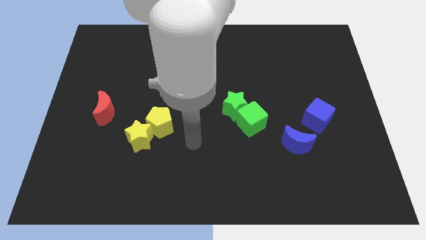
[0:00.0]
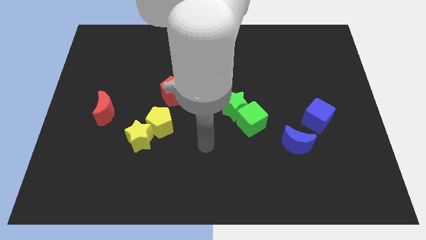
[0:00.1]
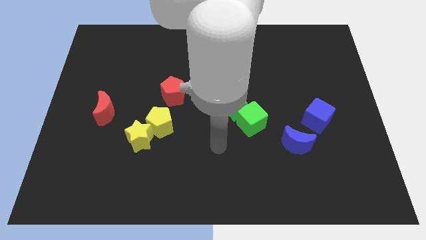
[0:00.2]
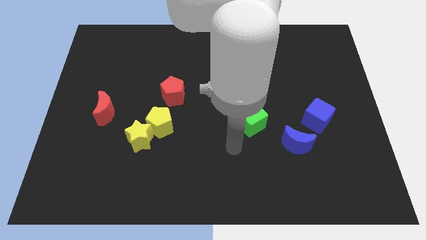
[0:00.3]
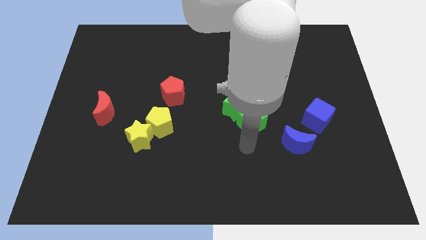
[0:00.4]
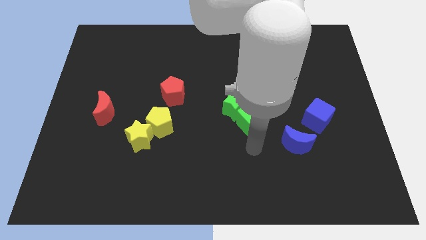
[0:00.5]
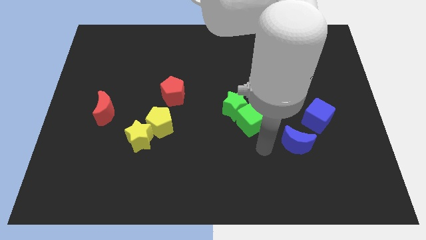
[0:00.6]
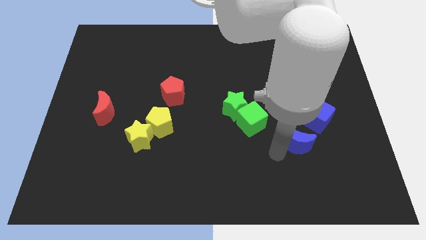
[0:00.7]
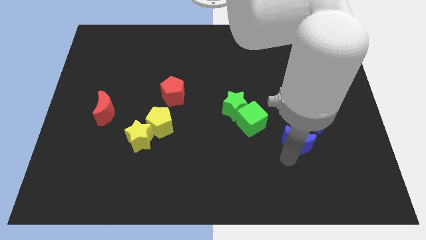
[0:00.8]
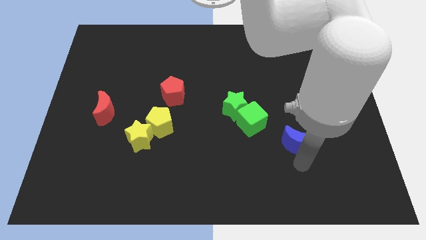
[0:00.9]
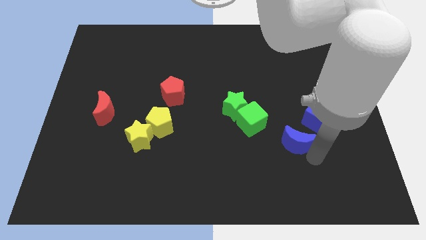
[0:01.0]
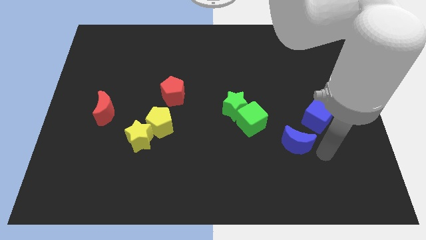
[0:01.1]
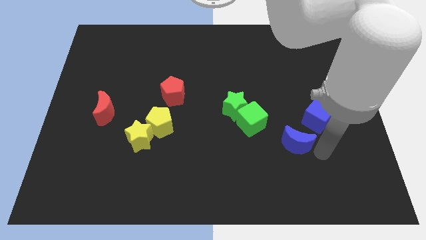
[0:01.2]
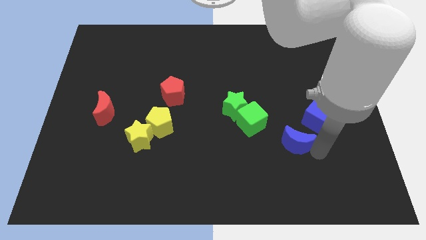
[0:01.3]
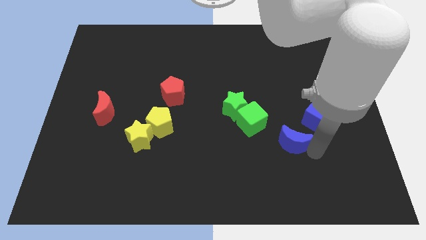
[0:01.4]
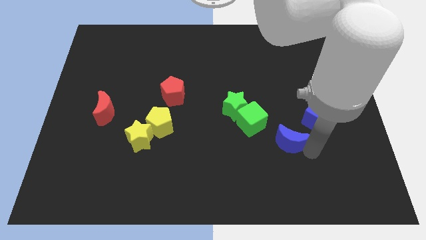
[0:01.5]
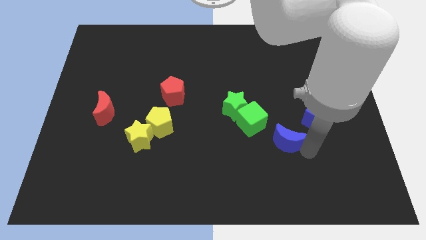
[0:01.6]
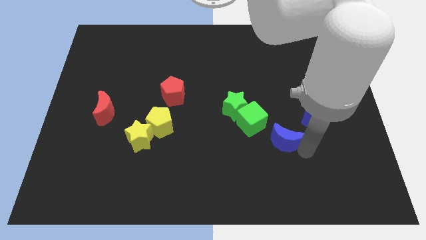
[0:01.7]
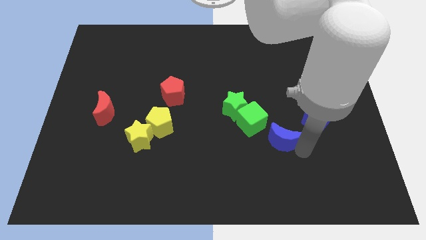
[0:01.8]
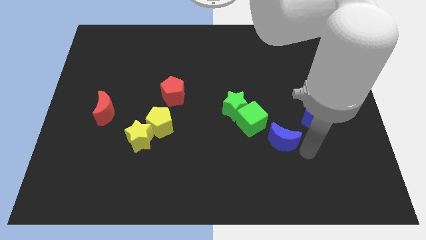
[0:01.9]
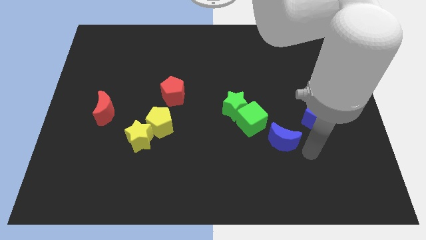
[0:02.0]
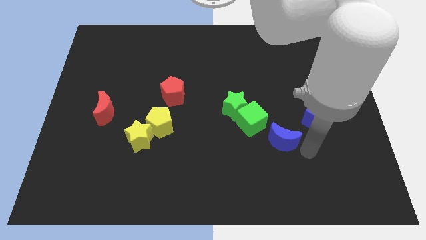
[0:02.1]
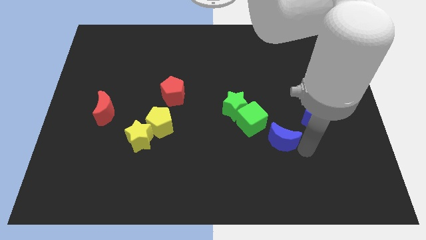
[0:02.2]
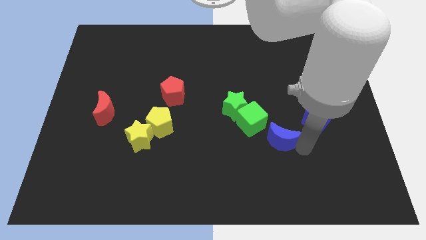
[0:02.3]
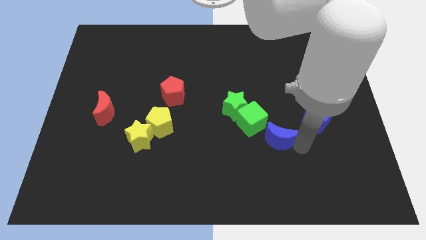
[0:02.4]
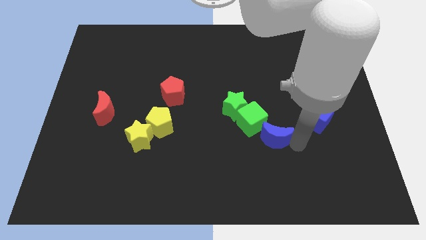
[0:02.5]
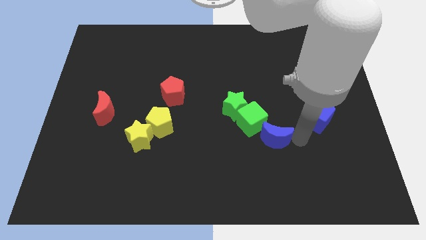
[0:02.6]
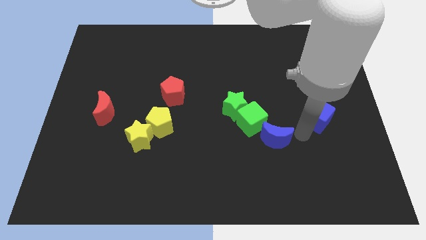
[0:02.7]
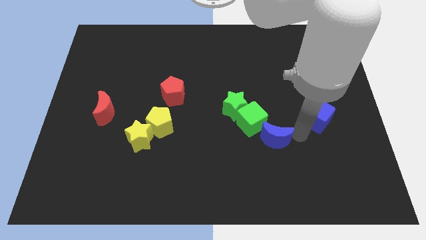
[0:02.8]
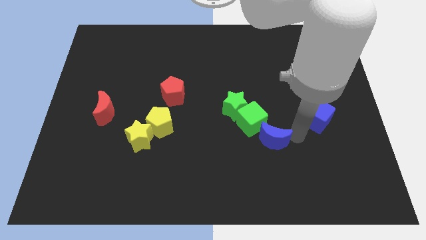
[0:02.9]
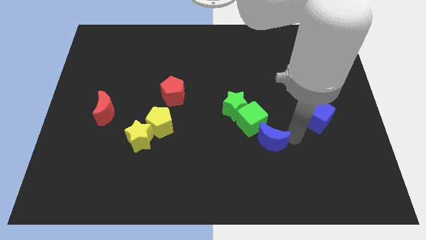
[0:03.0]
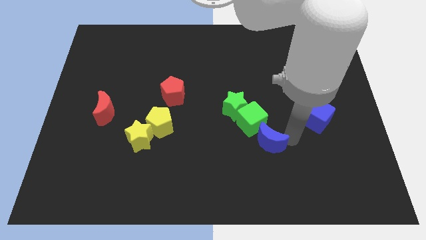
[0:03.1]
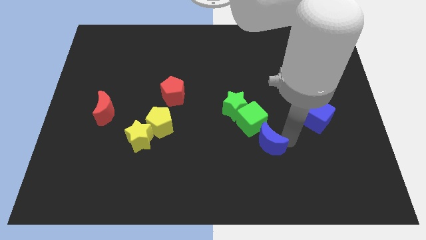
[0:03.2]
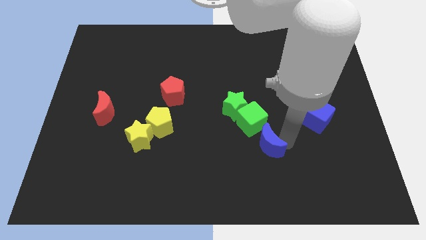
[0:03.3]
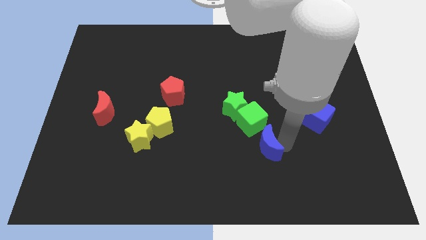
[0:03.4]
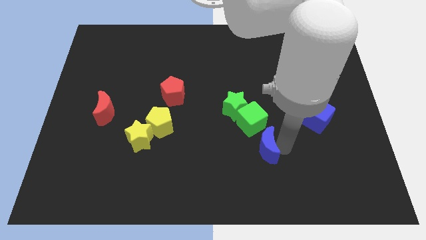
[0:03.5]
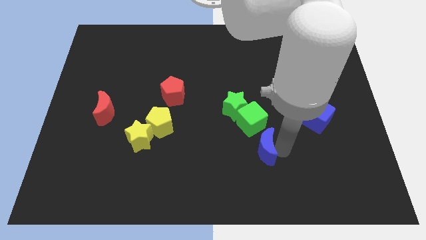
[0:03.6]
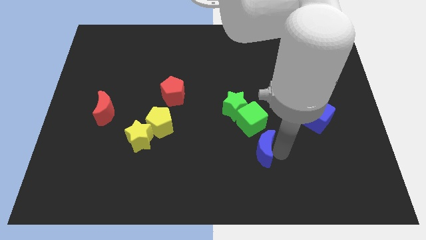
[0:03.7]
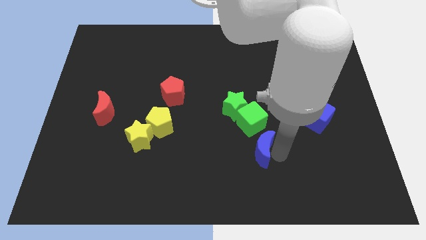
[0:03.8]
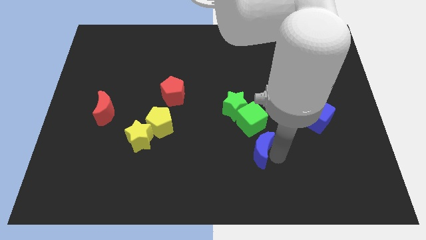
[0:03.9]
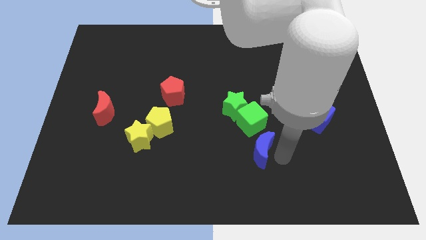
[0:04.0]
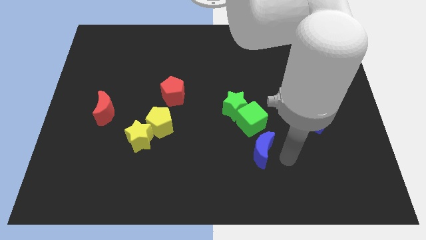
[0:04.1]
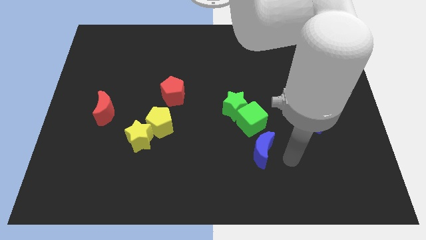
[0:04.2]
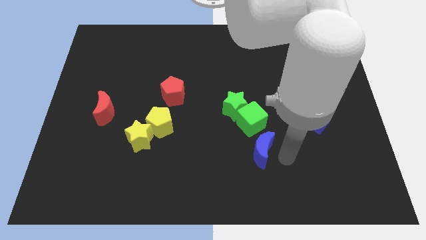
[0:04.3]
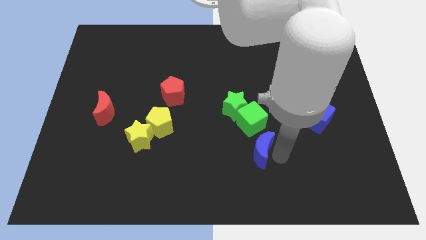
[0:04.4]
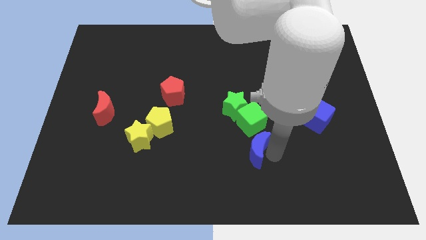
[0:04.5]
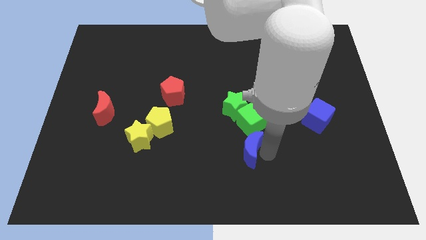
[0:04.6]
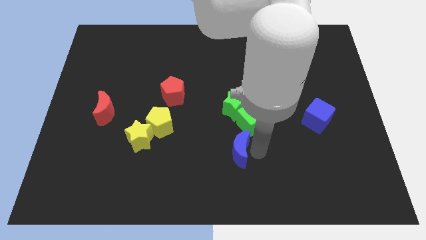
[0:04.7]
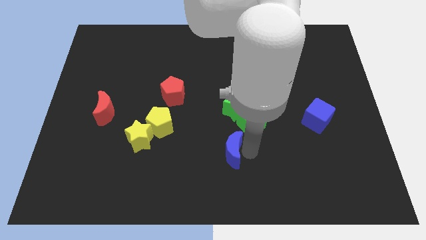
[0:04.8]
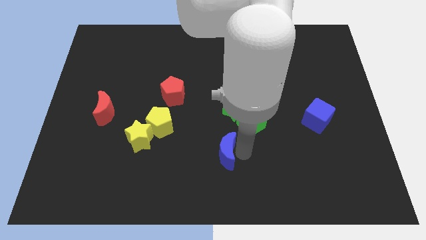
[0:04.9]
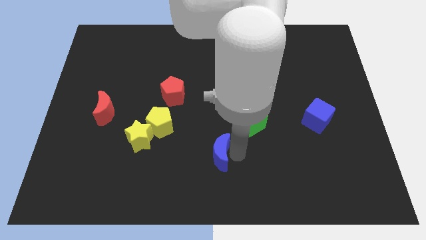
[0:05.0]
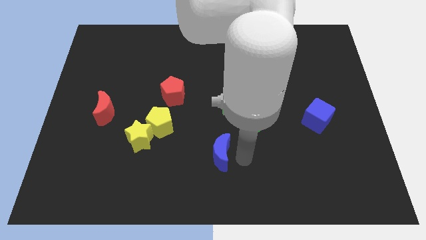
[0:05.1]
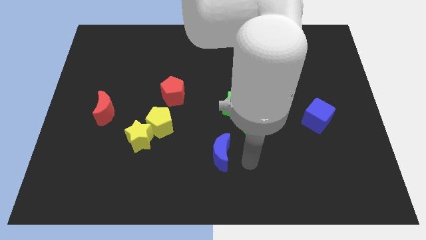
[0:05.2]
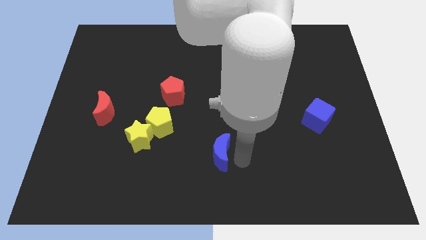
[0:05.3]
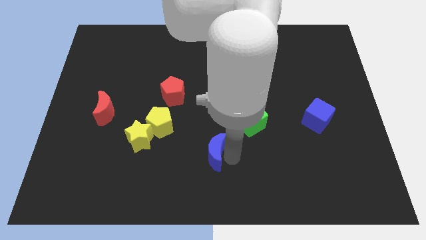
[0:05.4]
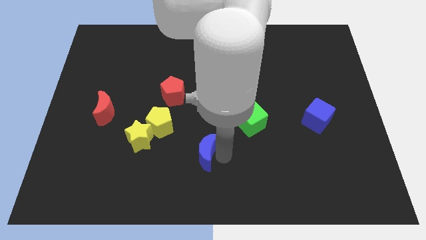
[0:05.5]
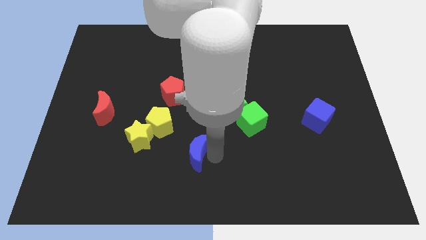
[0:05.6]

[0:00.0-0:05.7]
push the blue moon to the bottom right of the yellow pentagon

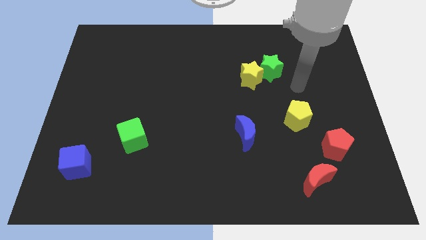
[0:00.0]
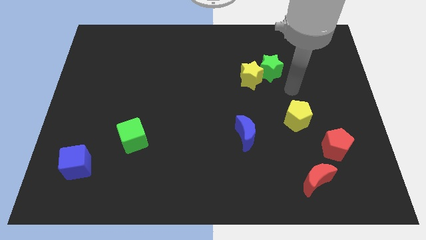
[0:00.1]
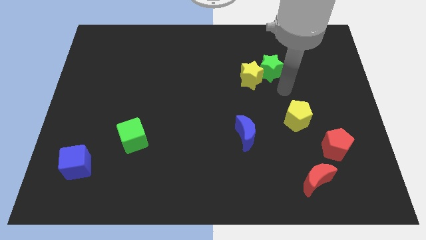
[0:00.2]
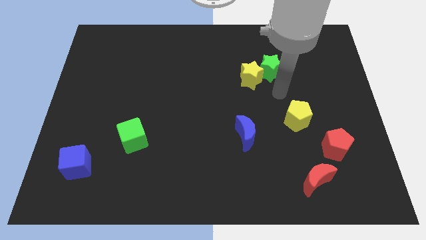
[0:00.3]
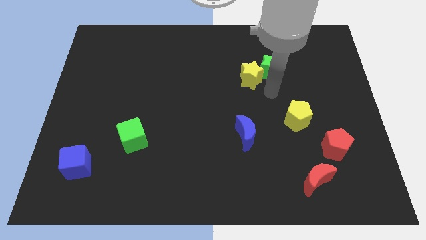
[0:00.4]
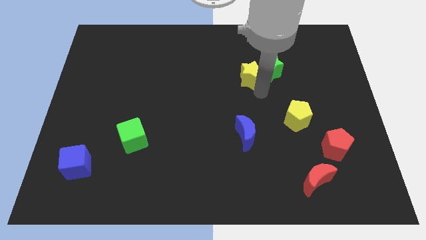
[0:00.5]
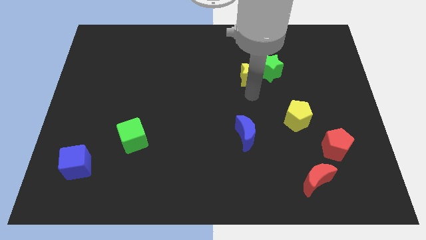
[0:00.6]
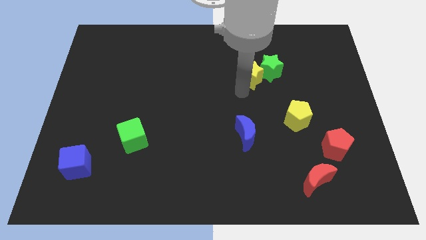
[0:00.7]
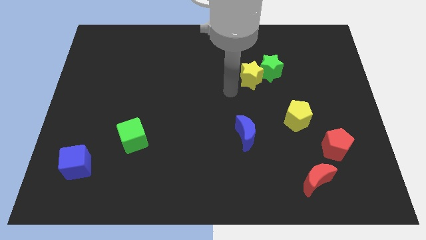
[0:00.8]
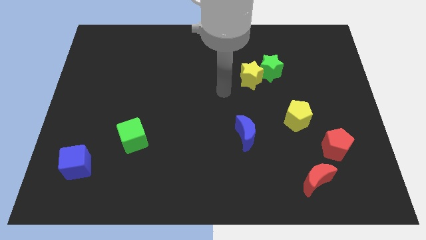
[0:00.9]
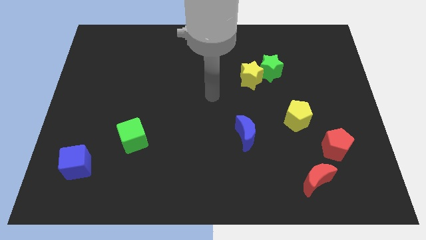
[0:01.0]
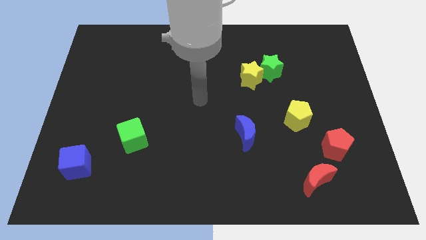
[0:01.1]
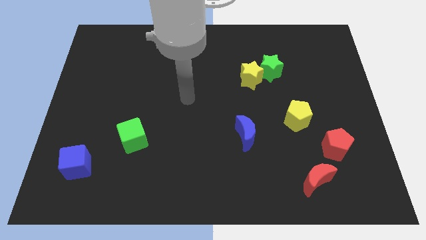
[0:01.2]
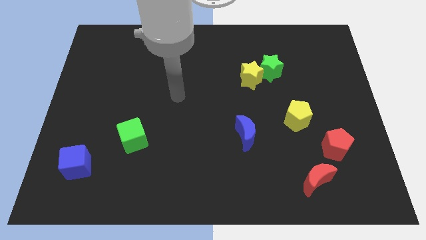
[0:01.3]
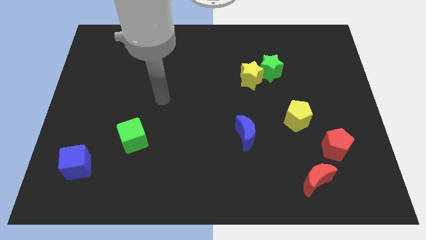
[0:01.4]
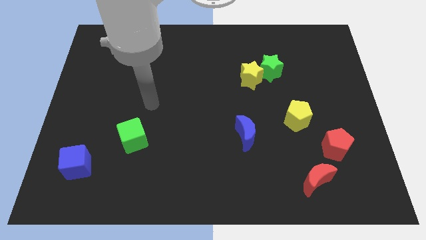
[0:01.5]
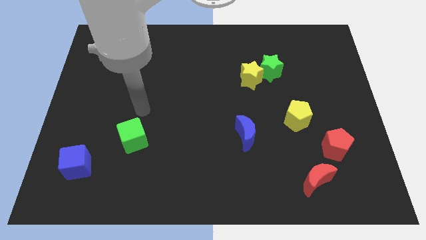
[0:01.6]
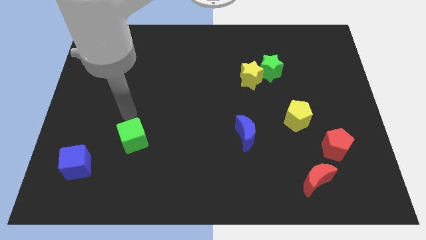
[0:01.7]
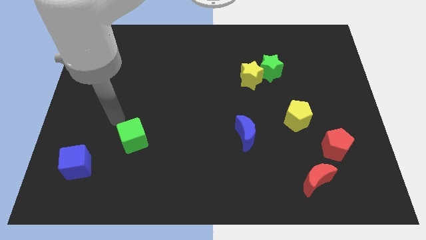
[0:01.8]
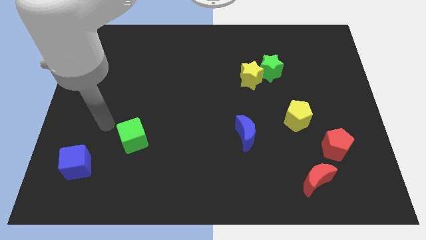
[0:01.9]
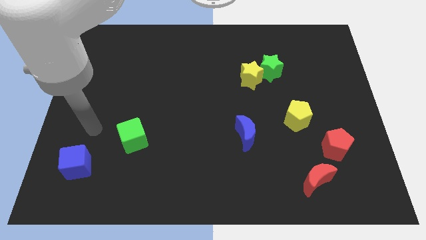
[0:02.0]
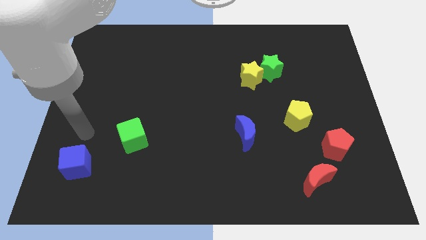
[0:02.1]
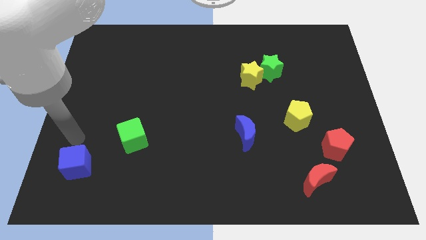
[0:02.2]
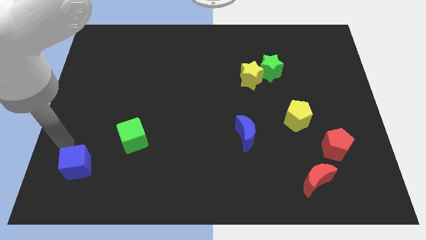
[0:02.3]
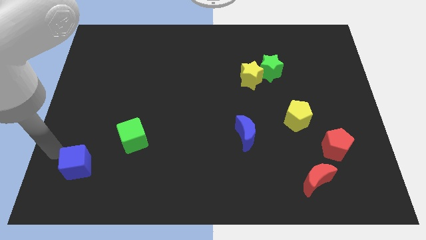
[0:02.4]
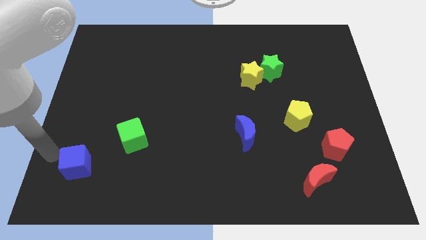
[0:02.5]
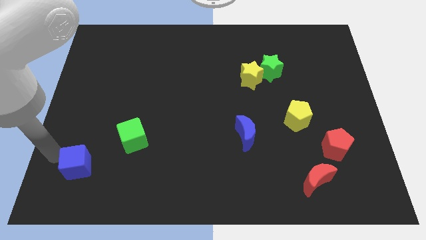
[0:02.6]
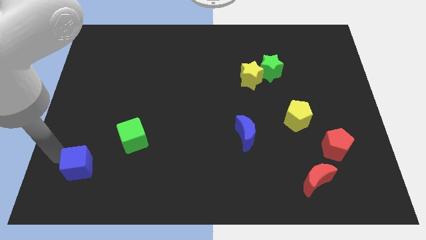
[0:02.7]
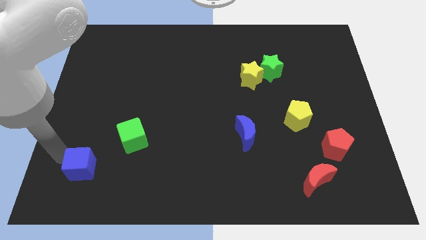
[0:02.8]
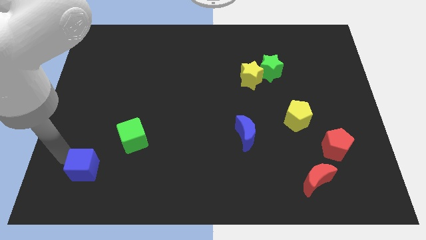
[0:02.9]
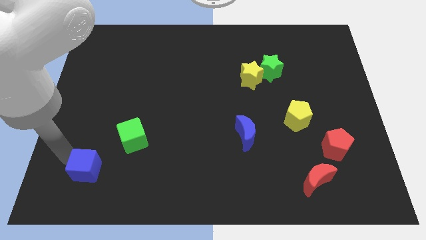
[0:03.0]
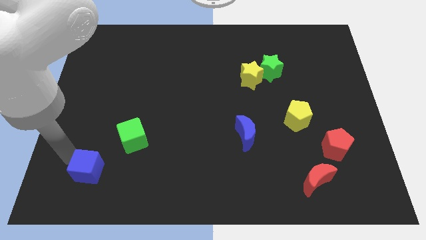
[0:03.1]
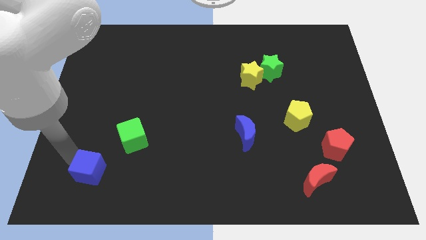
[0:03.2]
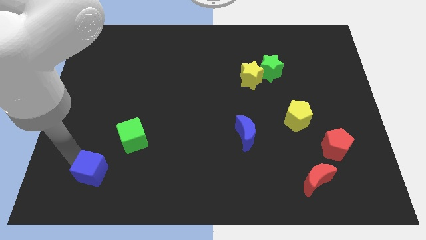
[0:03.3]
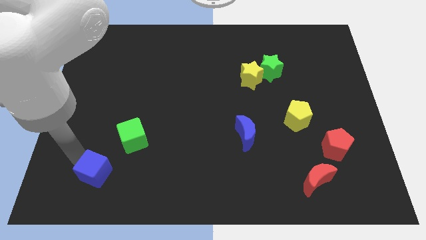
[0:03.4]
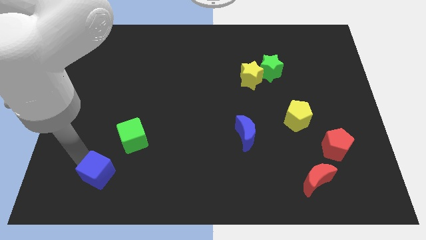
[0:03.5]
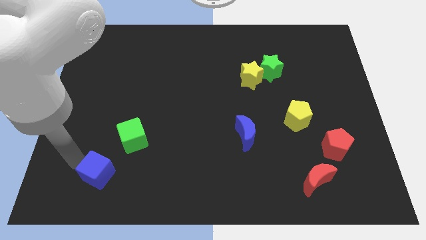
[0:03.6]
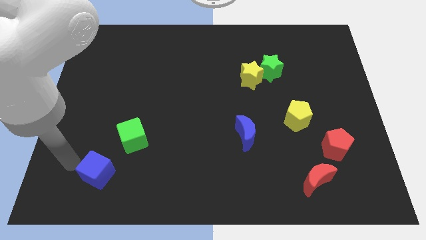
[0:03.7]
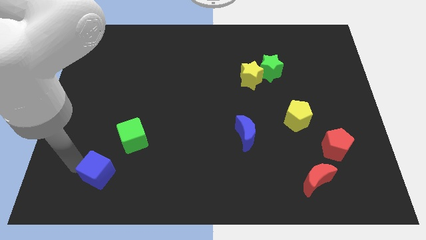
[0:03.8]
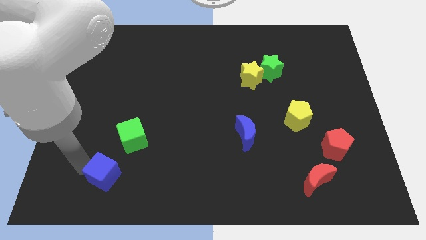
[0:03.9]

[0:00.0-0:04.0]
move the blue cube below the green cube
